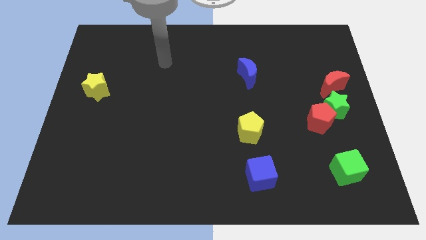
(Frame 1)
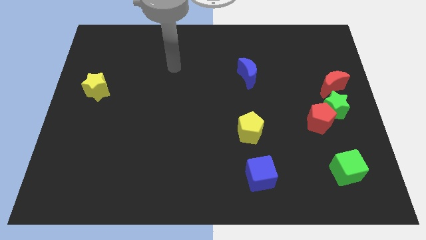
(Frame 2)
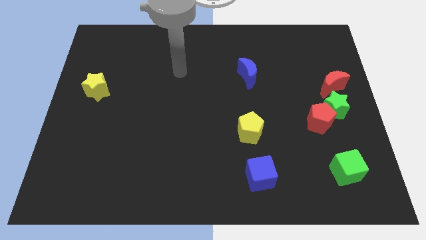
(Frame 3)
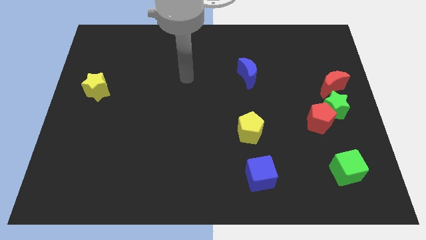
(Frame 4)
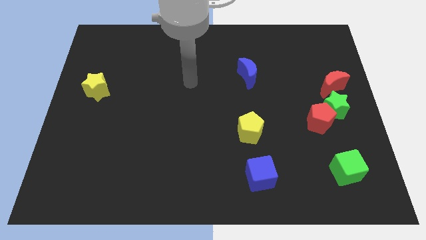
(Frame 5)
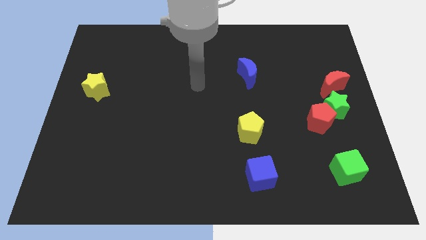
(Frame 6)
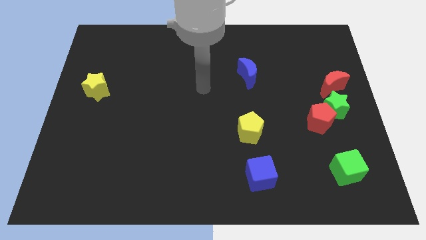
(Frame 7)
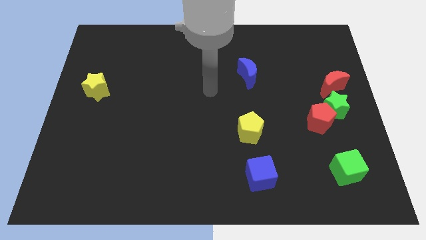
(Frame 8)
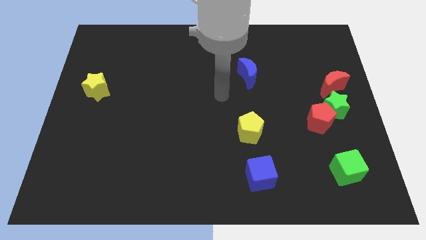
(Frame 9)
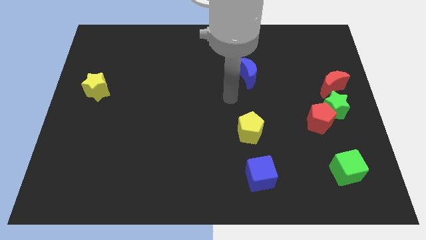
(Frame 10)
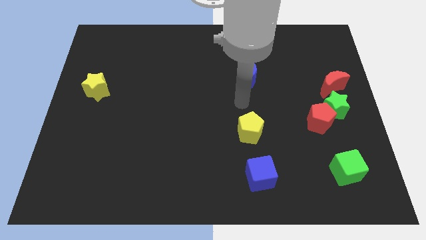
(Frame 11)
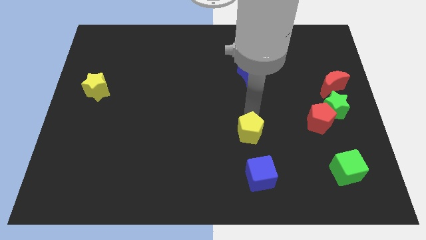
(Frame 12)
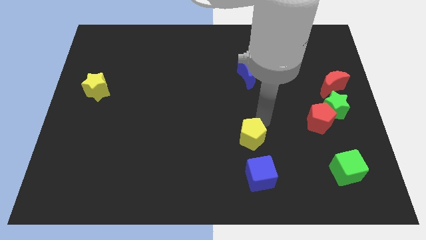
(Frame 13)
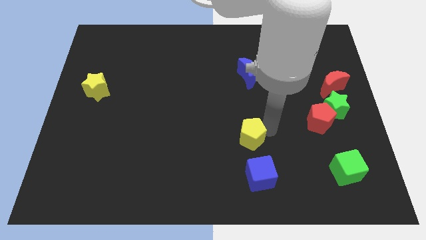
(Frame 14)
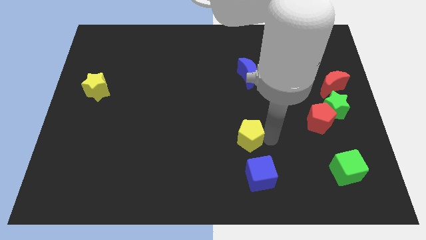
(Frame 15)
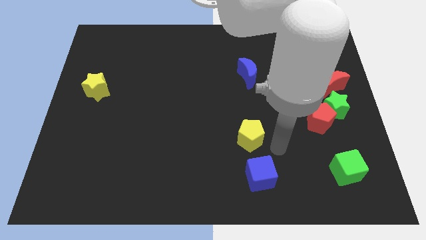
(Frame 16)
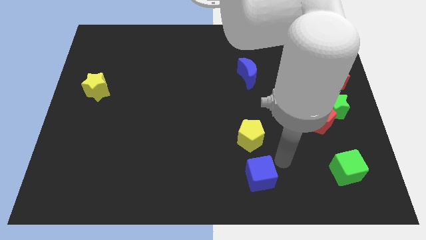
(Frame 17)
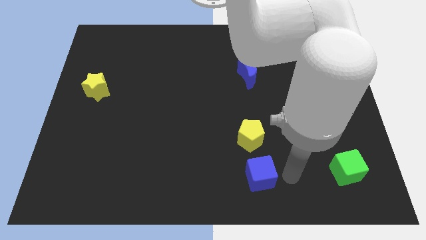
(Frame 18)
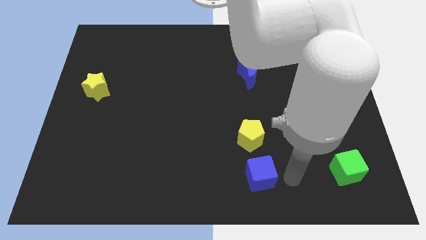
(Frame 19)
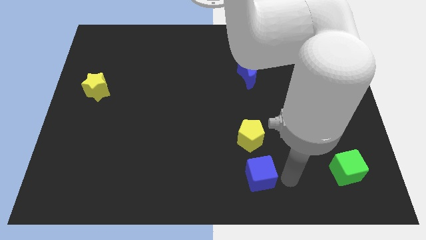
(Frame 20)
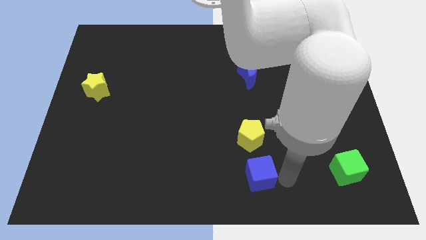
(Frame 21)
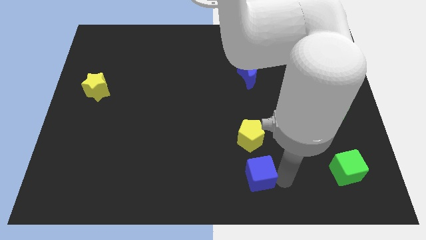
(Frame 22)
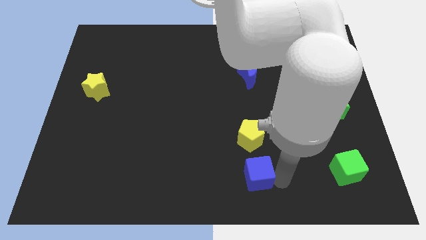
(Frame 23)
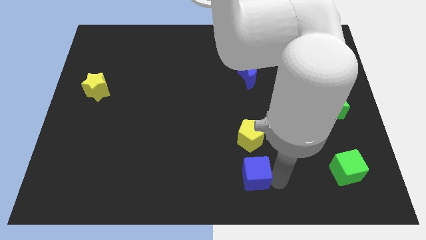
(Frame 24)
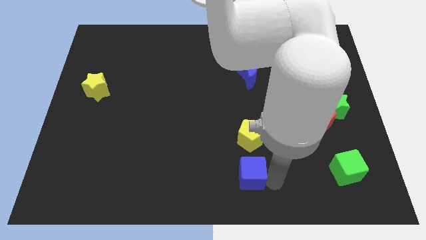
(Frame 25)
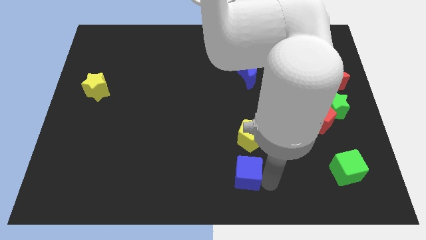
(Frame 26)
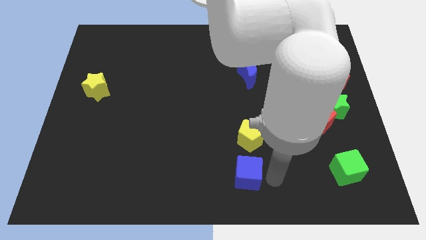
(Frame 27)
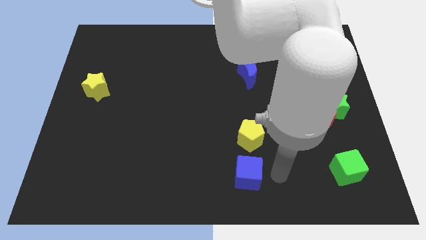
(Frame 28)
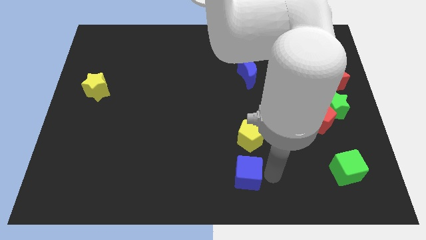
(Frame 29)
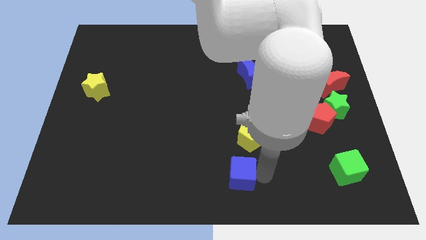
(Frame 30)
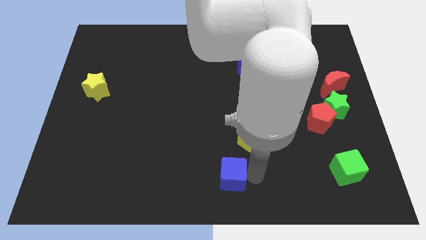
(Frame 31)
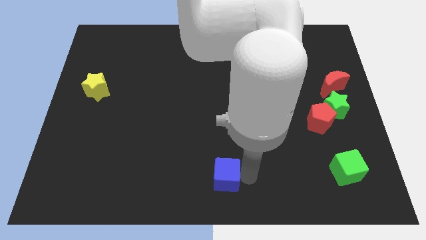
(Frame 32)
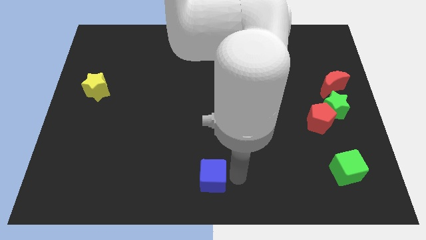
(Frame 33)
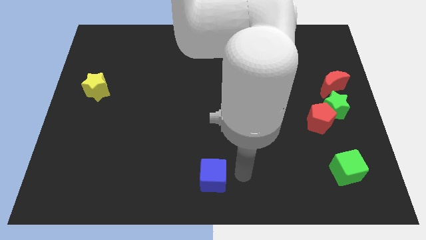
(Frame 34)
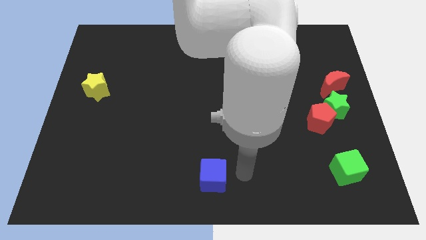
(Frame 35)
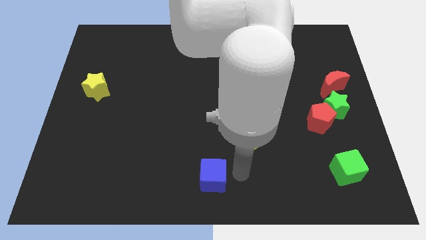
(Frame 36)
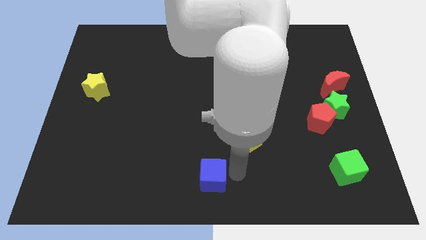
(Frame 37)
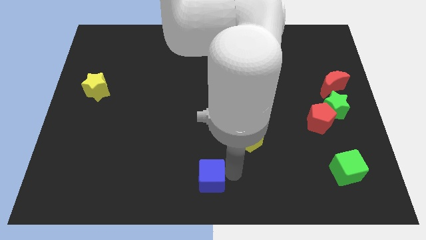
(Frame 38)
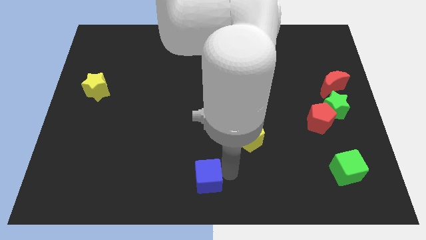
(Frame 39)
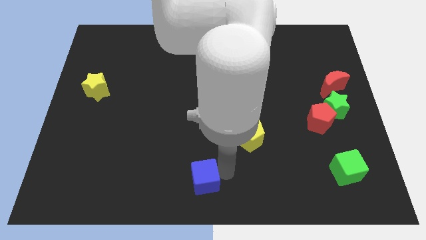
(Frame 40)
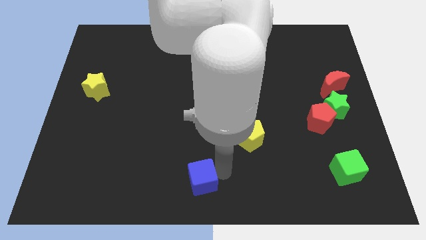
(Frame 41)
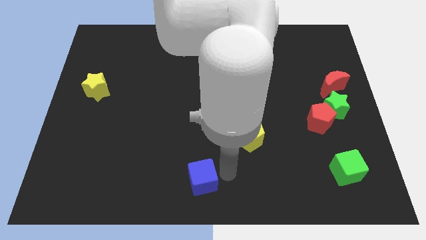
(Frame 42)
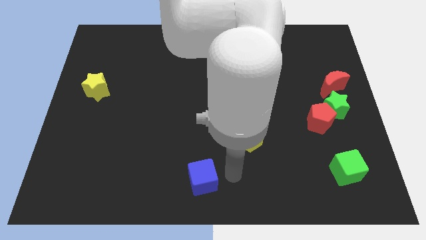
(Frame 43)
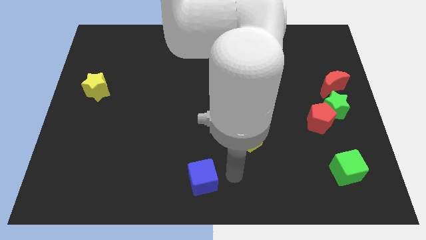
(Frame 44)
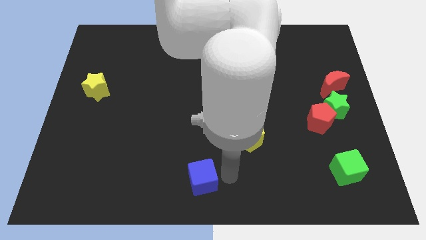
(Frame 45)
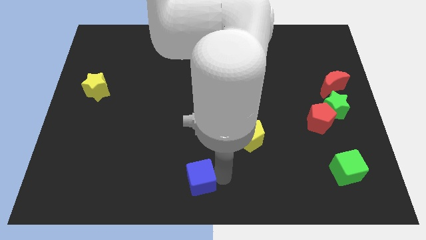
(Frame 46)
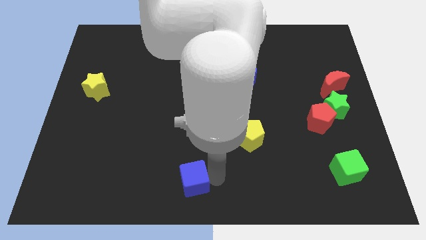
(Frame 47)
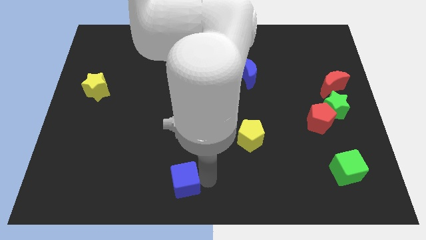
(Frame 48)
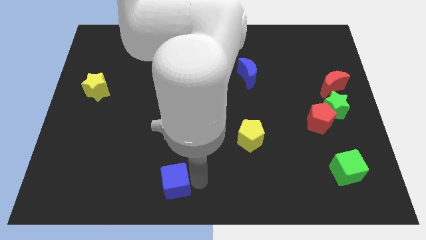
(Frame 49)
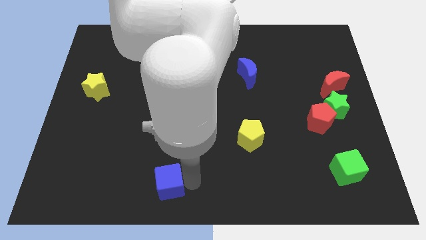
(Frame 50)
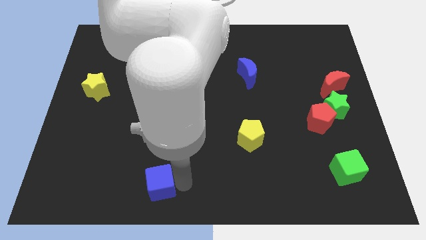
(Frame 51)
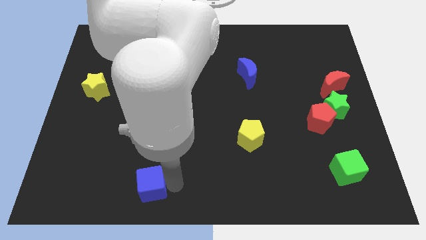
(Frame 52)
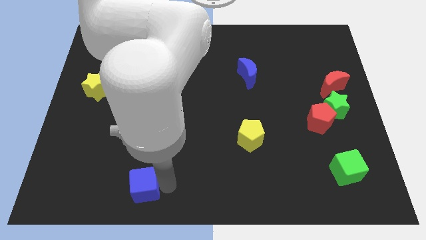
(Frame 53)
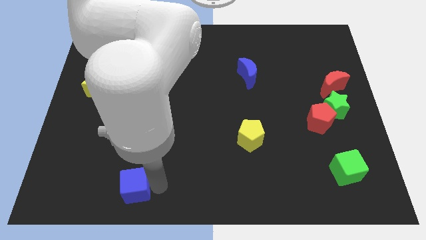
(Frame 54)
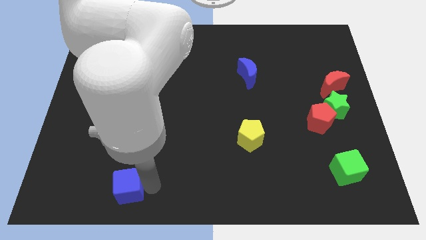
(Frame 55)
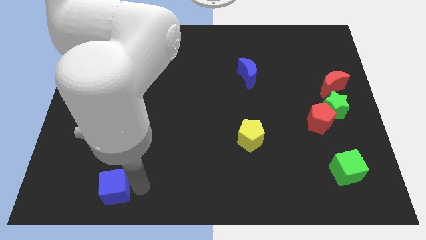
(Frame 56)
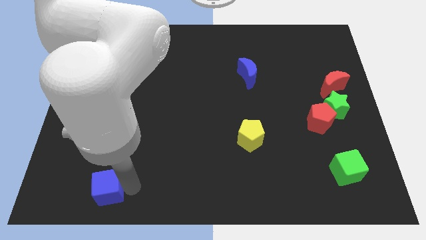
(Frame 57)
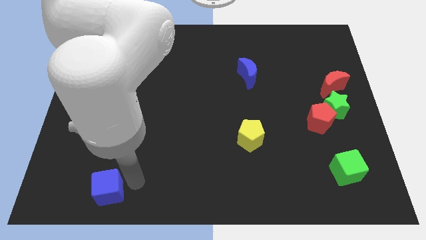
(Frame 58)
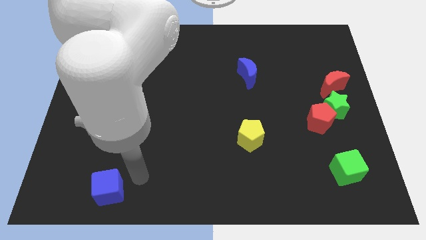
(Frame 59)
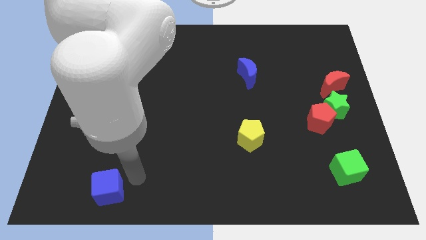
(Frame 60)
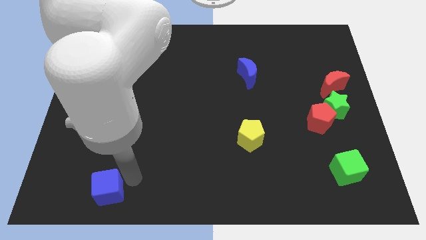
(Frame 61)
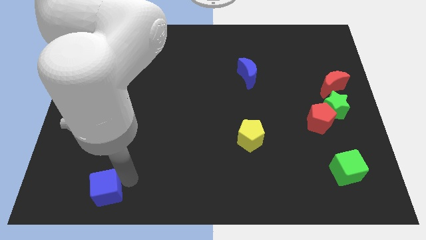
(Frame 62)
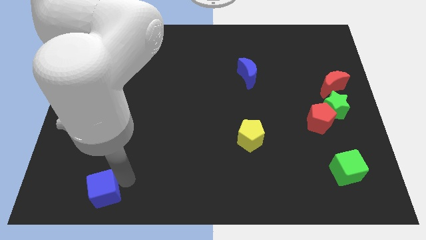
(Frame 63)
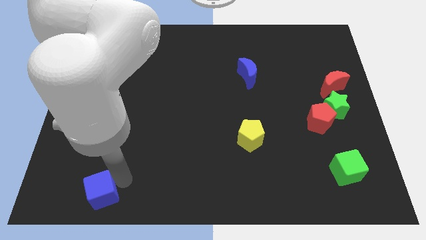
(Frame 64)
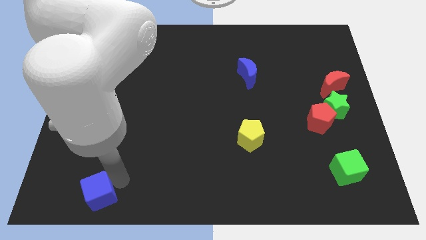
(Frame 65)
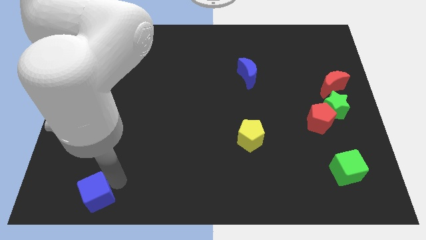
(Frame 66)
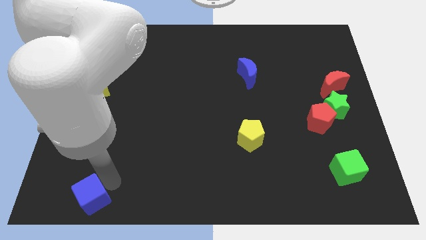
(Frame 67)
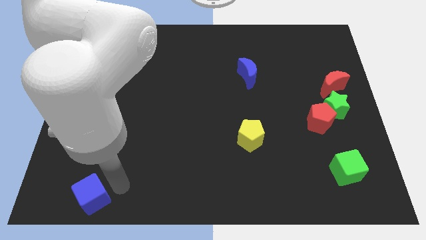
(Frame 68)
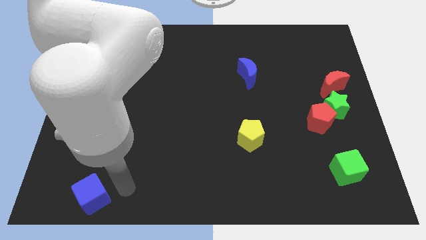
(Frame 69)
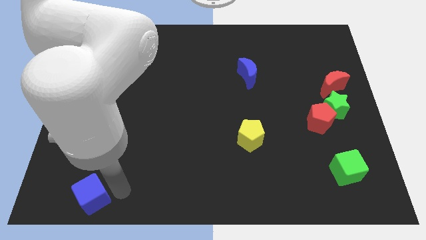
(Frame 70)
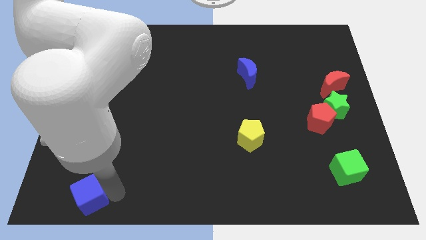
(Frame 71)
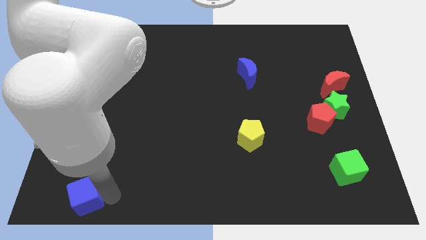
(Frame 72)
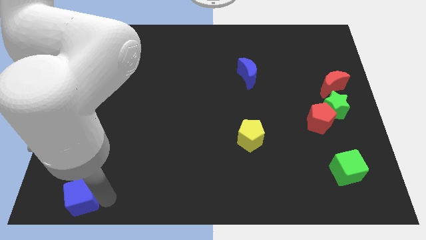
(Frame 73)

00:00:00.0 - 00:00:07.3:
push the blue cube to the lower left corner
